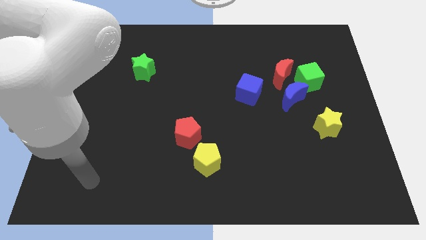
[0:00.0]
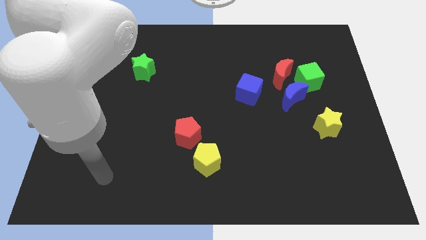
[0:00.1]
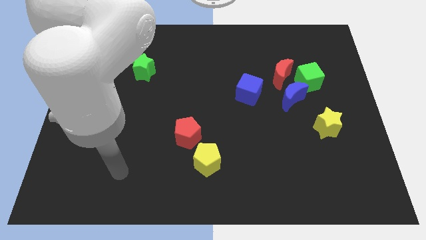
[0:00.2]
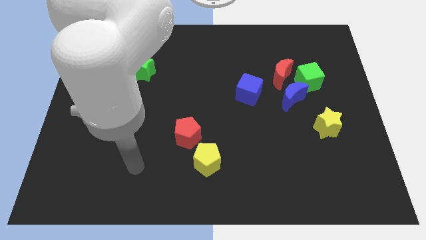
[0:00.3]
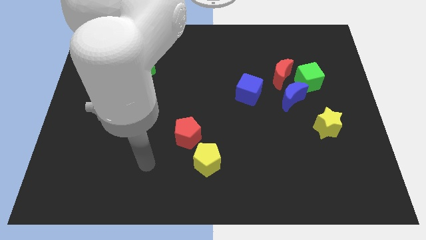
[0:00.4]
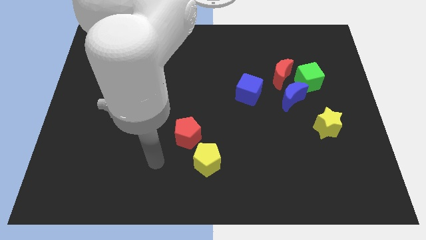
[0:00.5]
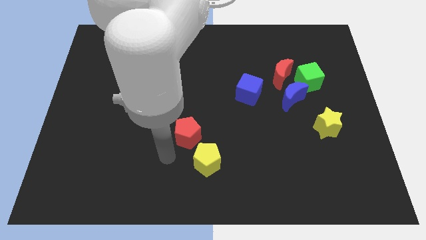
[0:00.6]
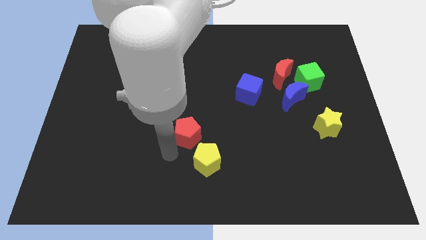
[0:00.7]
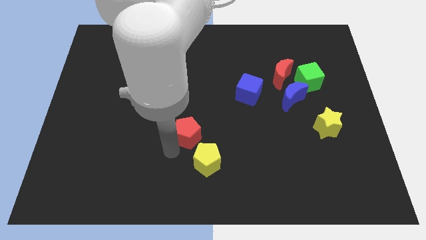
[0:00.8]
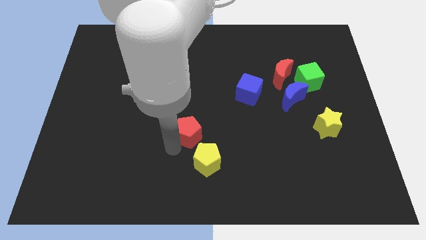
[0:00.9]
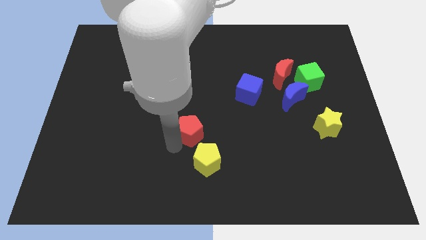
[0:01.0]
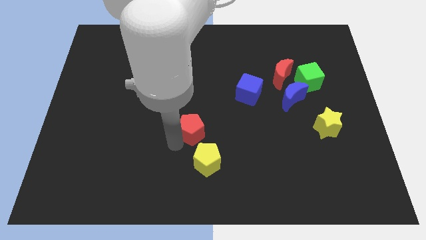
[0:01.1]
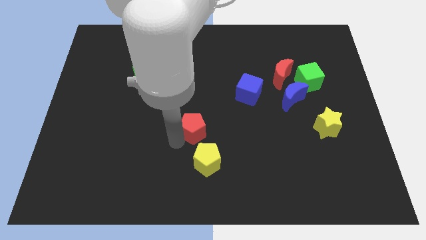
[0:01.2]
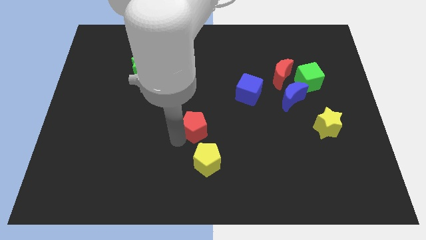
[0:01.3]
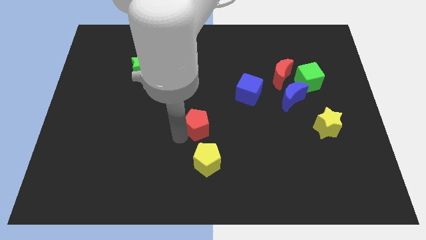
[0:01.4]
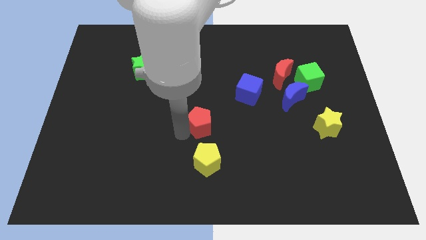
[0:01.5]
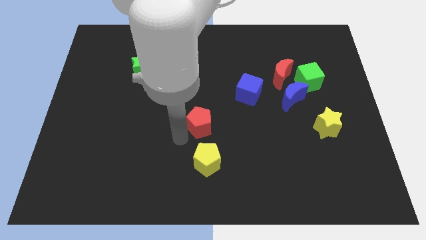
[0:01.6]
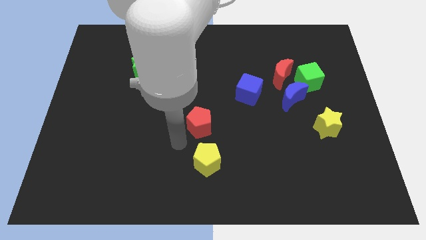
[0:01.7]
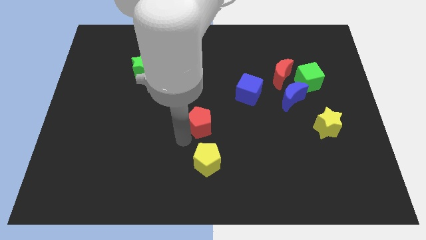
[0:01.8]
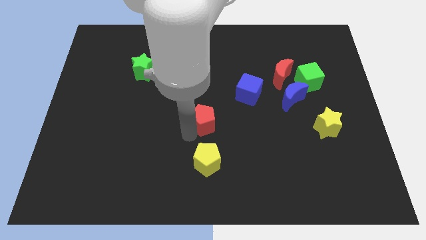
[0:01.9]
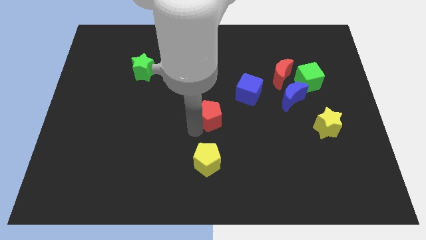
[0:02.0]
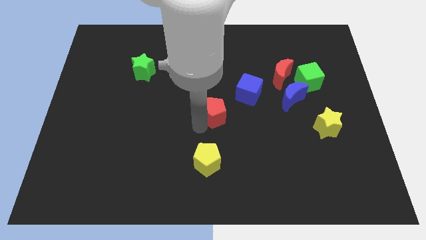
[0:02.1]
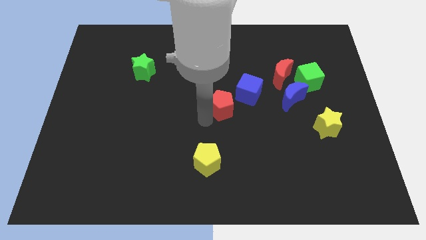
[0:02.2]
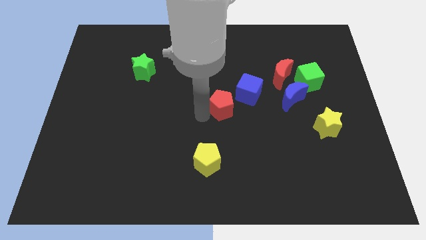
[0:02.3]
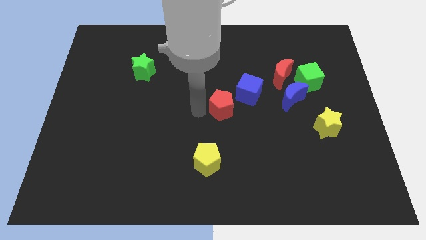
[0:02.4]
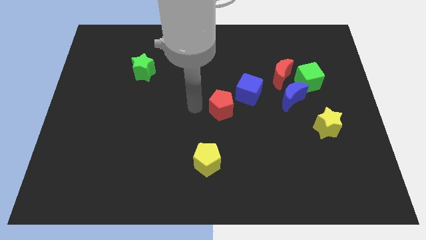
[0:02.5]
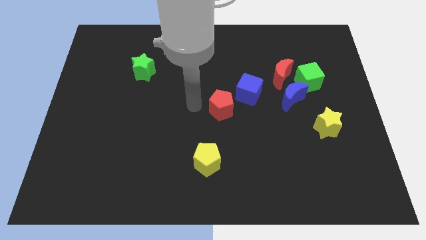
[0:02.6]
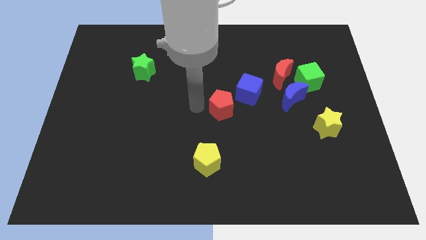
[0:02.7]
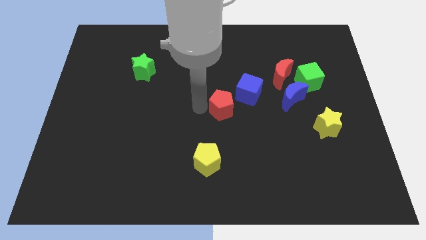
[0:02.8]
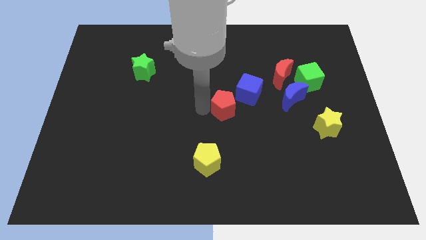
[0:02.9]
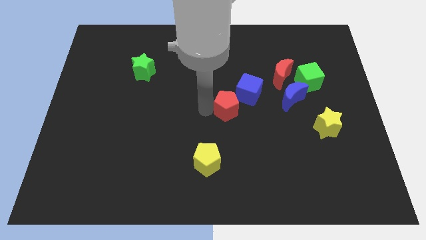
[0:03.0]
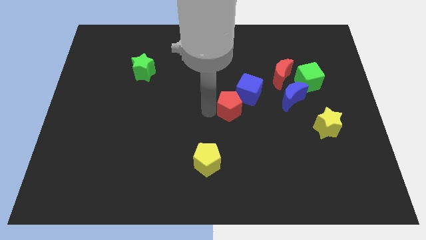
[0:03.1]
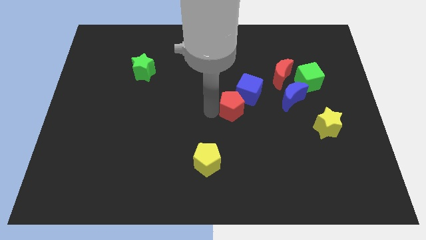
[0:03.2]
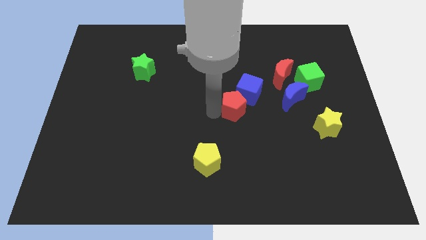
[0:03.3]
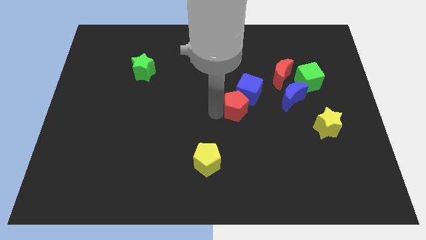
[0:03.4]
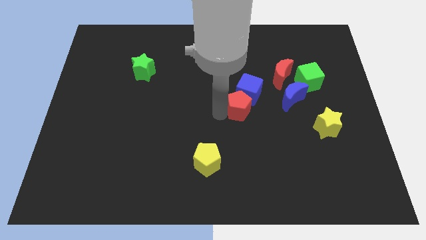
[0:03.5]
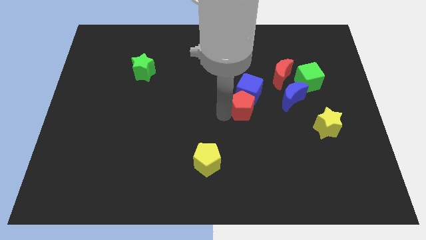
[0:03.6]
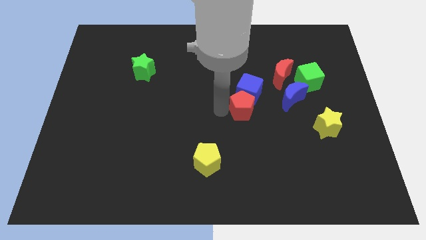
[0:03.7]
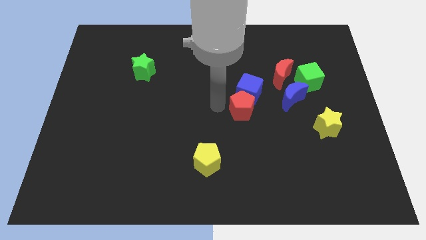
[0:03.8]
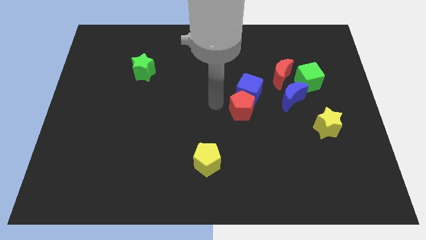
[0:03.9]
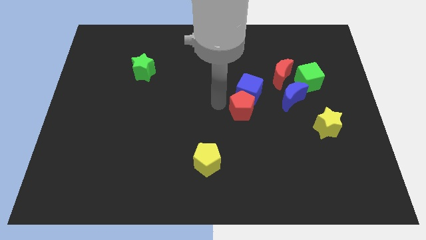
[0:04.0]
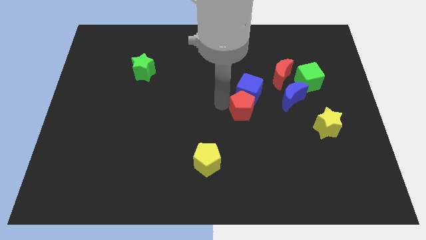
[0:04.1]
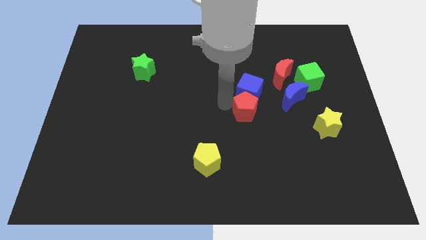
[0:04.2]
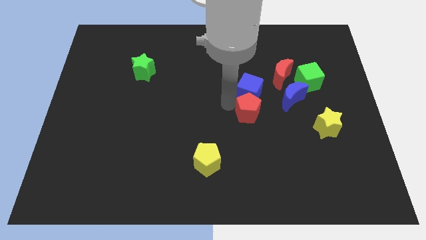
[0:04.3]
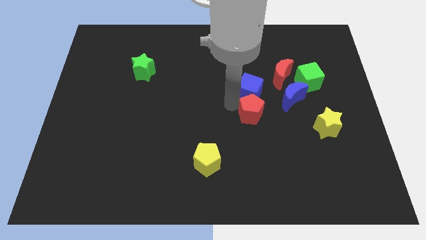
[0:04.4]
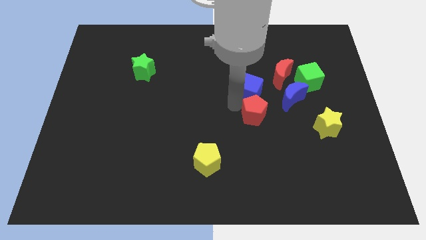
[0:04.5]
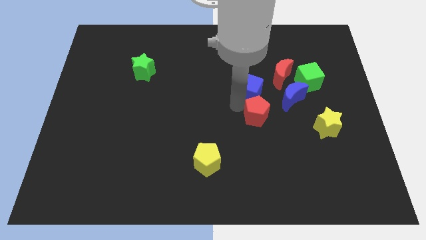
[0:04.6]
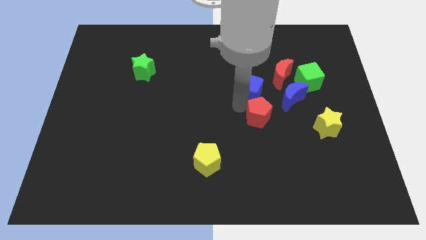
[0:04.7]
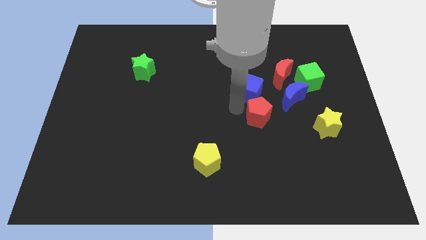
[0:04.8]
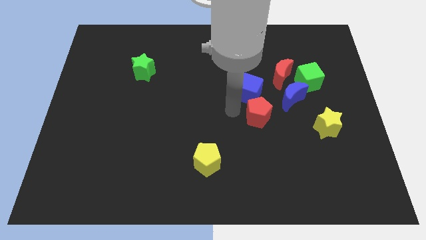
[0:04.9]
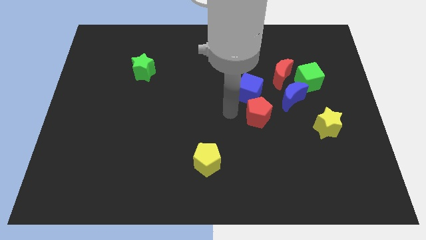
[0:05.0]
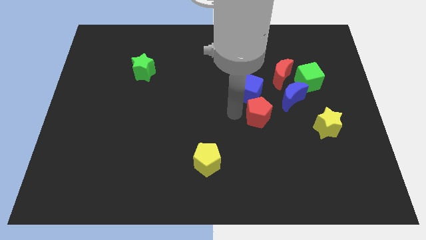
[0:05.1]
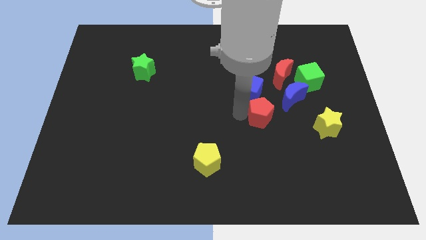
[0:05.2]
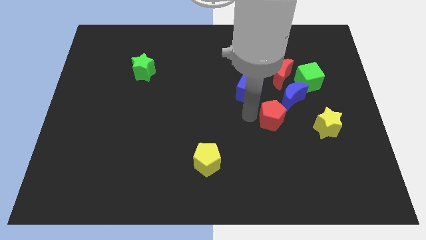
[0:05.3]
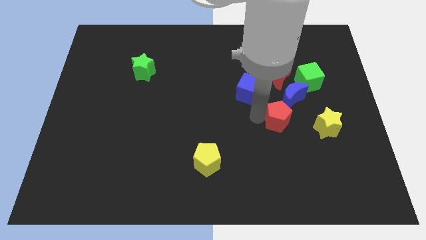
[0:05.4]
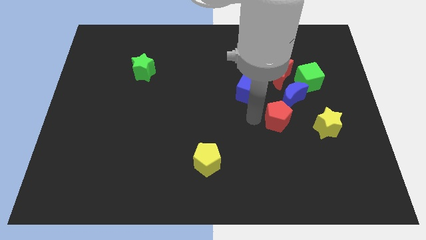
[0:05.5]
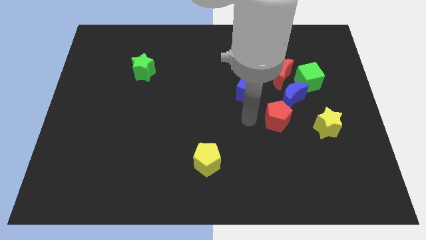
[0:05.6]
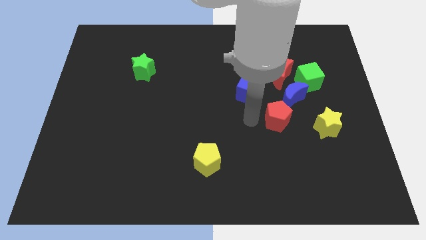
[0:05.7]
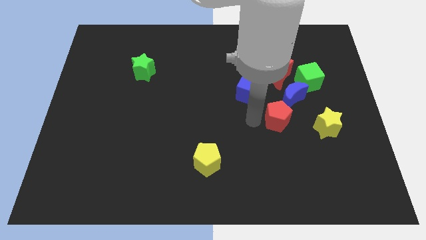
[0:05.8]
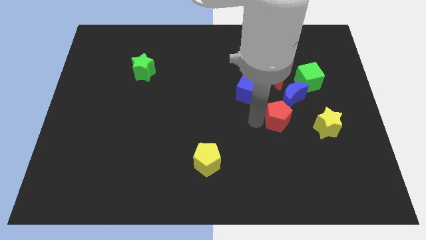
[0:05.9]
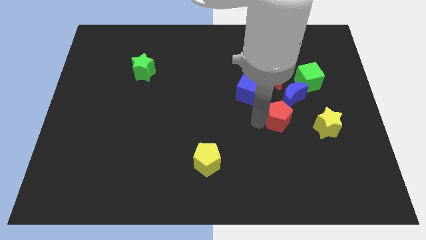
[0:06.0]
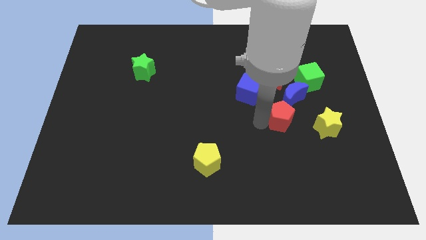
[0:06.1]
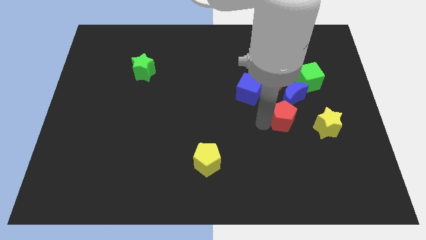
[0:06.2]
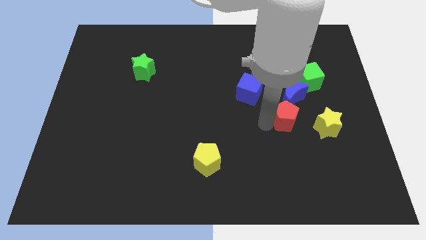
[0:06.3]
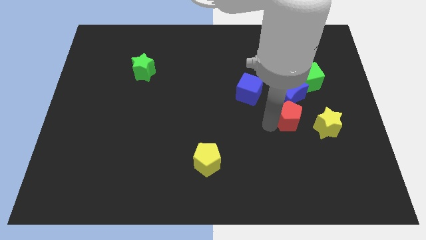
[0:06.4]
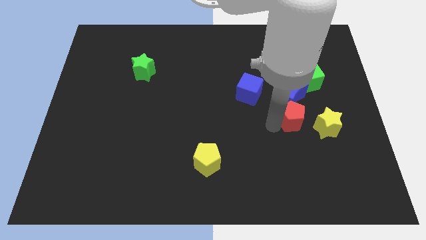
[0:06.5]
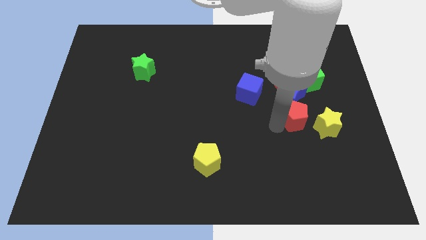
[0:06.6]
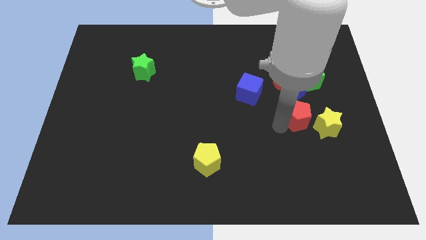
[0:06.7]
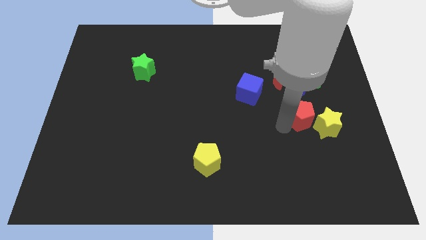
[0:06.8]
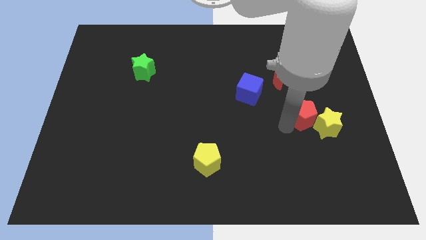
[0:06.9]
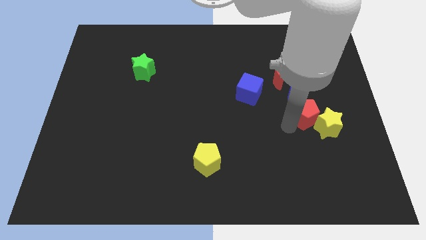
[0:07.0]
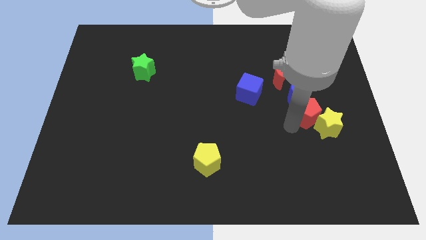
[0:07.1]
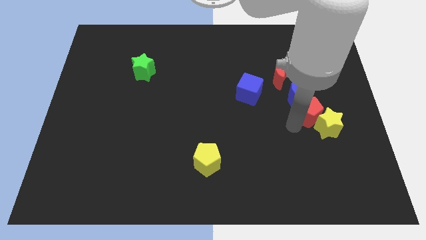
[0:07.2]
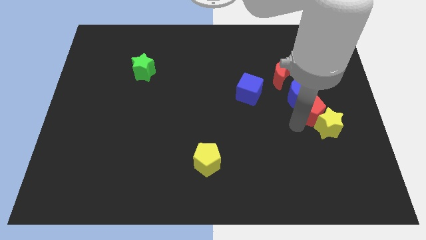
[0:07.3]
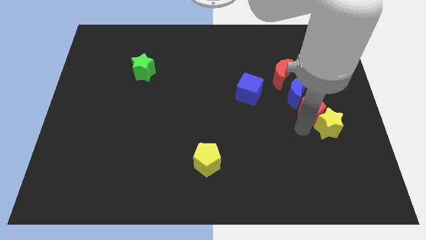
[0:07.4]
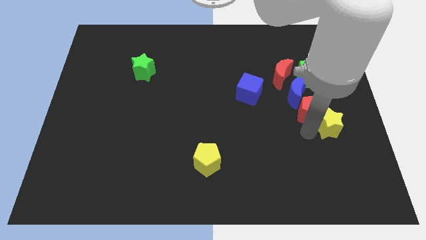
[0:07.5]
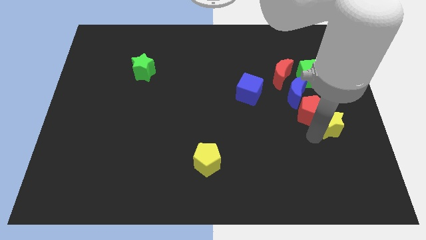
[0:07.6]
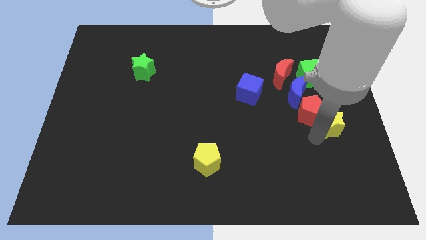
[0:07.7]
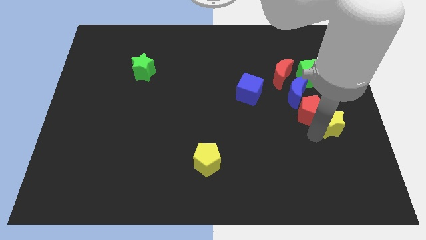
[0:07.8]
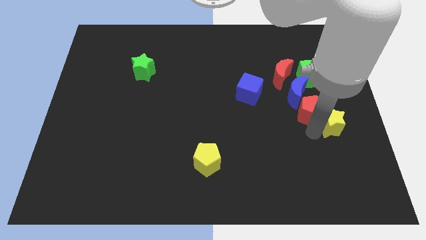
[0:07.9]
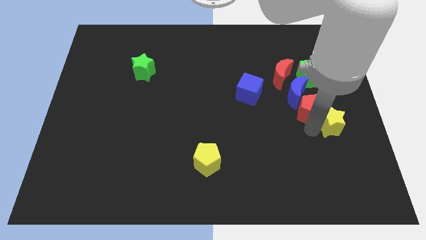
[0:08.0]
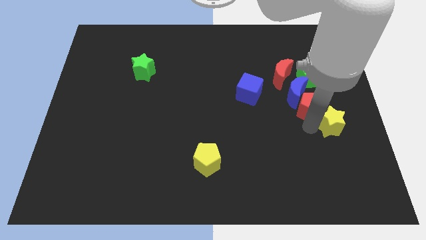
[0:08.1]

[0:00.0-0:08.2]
put the red pentagon to the bottom right of the red moon
